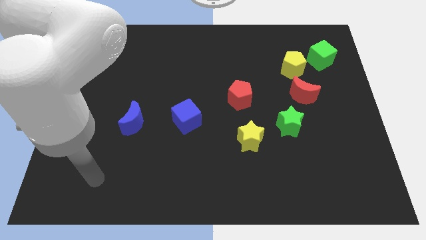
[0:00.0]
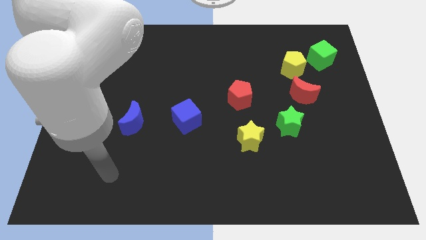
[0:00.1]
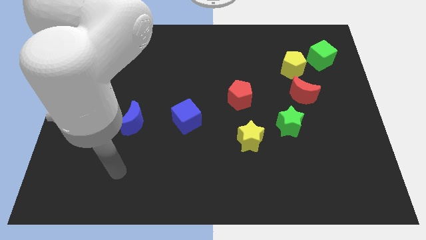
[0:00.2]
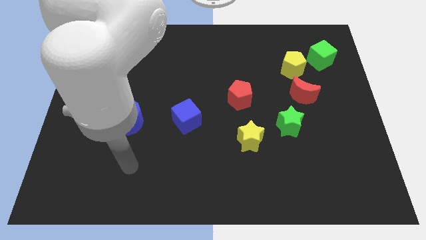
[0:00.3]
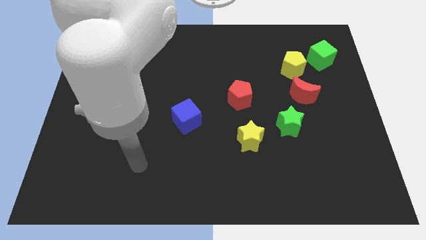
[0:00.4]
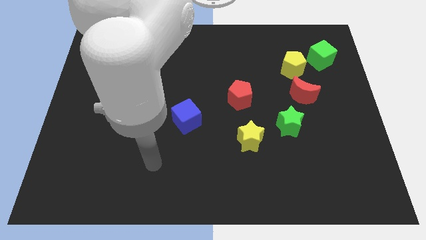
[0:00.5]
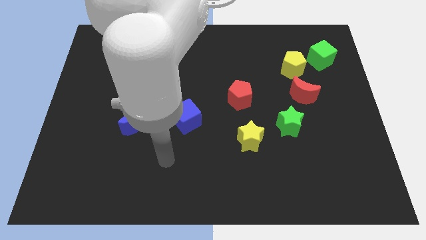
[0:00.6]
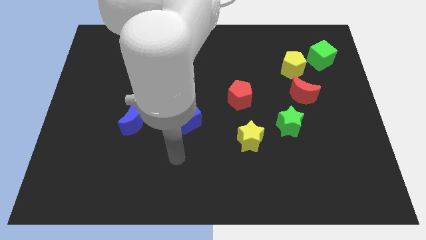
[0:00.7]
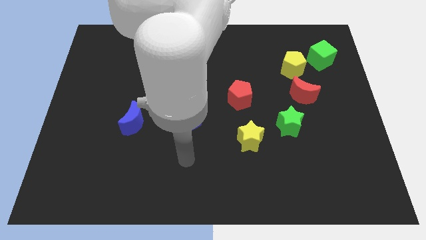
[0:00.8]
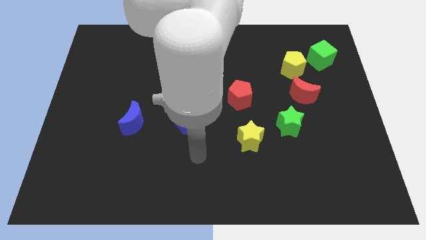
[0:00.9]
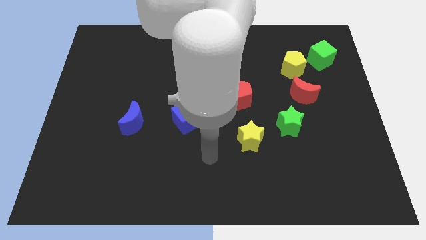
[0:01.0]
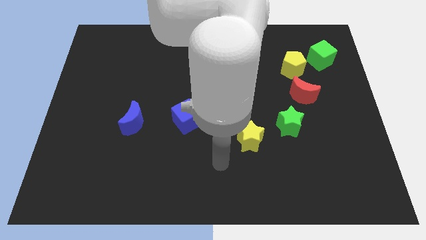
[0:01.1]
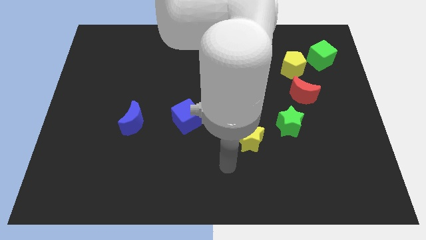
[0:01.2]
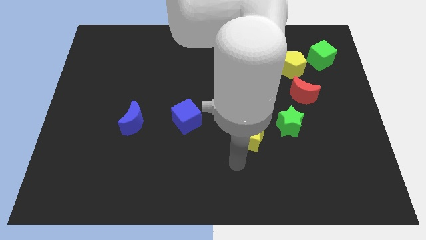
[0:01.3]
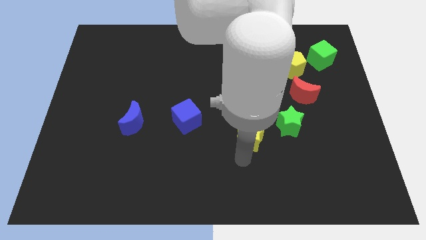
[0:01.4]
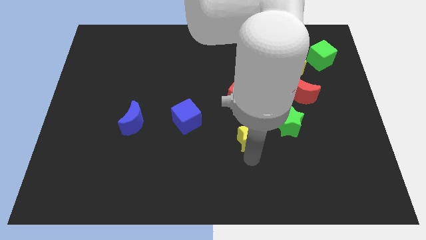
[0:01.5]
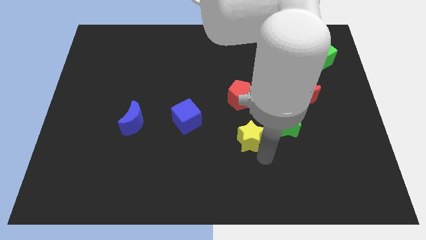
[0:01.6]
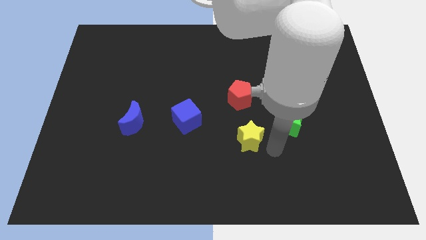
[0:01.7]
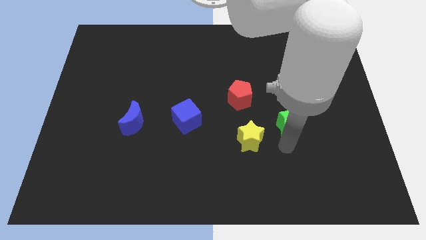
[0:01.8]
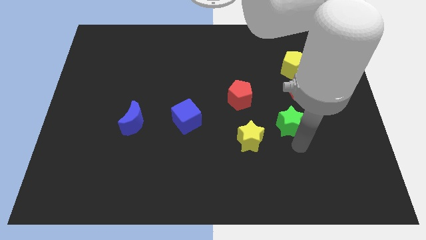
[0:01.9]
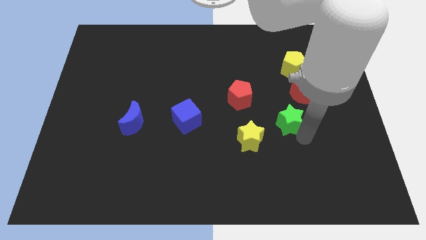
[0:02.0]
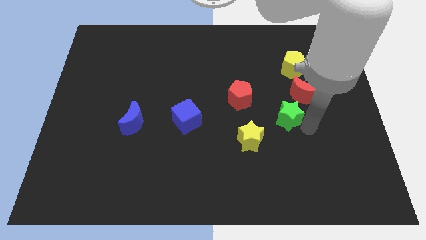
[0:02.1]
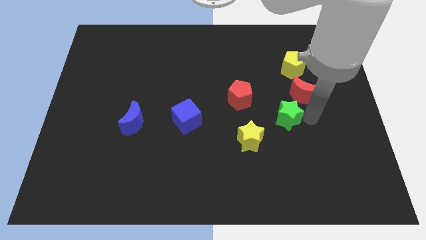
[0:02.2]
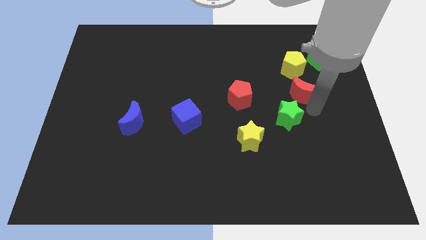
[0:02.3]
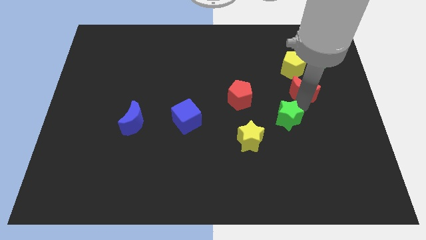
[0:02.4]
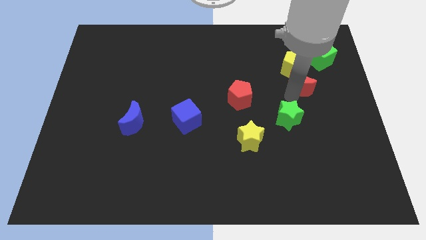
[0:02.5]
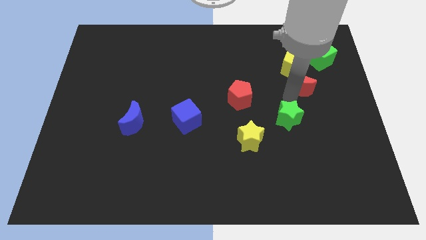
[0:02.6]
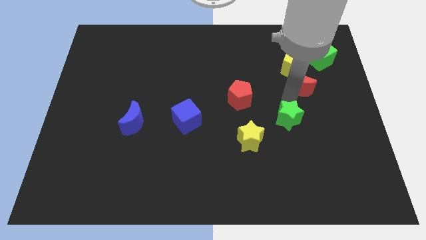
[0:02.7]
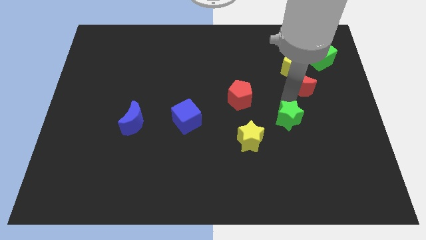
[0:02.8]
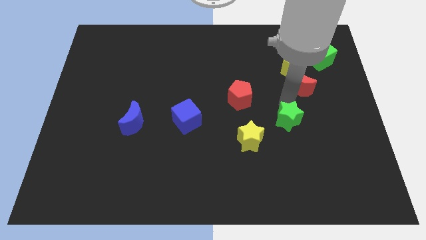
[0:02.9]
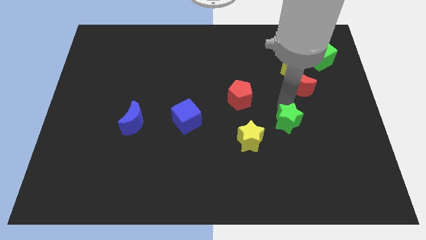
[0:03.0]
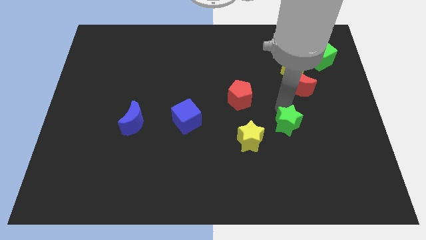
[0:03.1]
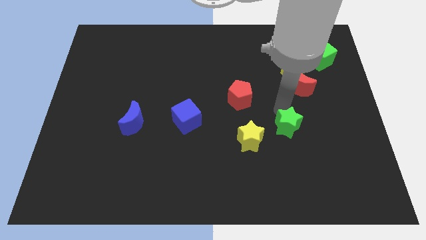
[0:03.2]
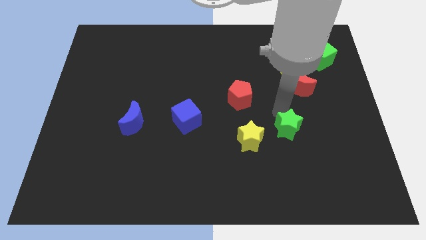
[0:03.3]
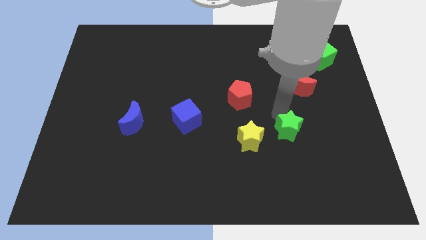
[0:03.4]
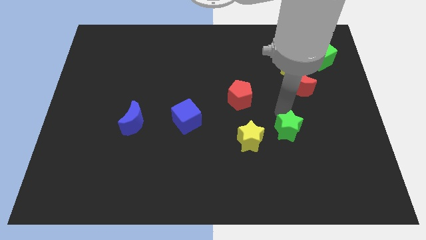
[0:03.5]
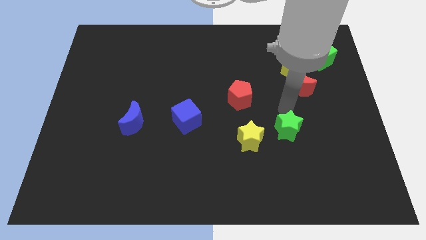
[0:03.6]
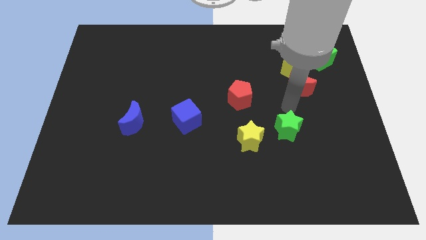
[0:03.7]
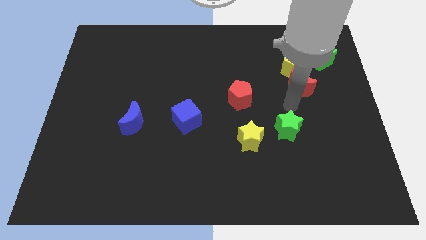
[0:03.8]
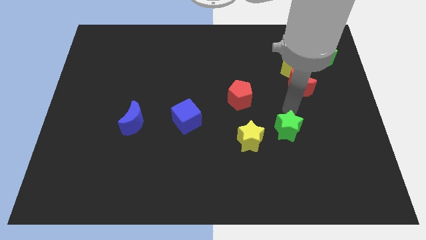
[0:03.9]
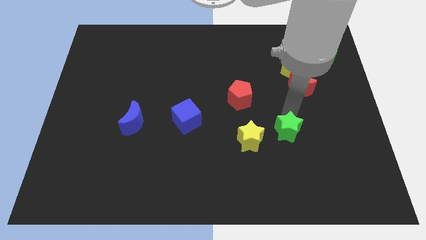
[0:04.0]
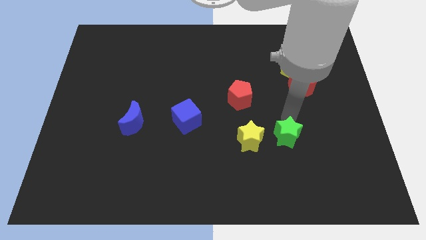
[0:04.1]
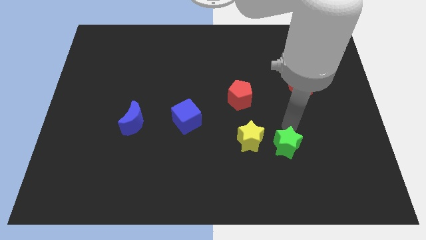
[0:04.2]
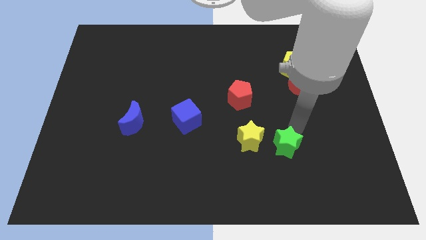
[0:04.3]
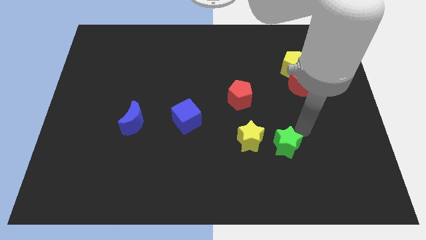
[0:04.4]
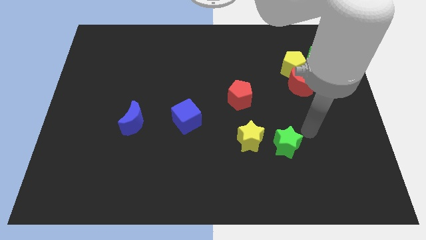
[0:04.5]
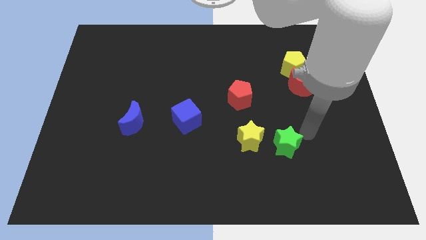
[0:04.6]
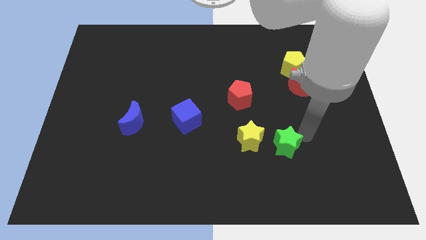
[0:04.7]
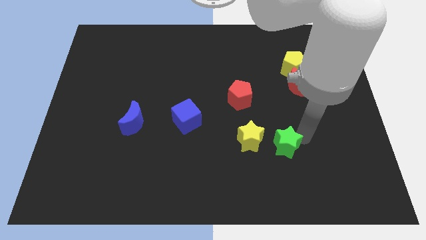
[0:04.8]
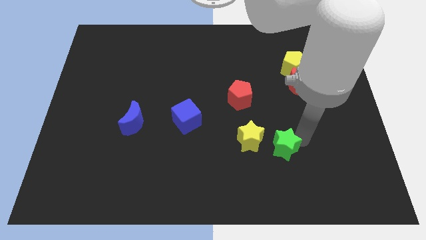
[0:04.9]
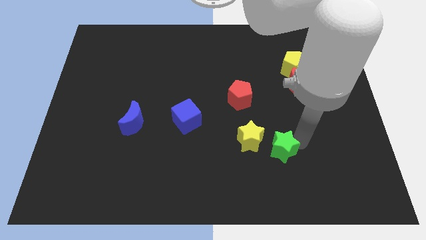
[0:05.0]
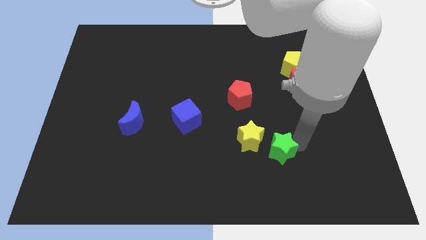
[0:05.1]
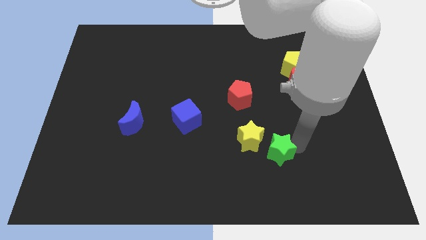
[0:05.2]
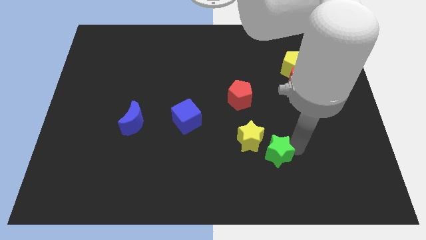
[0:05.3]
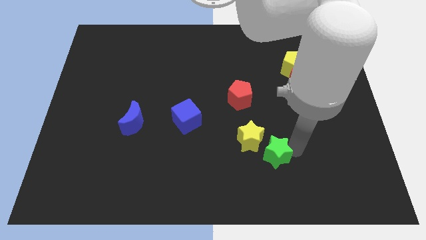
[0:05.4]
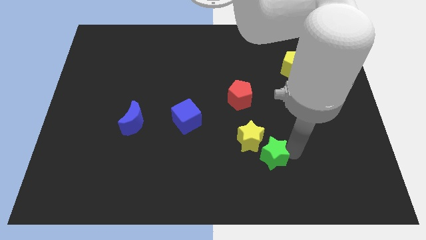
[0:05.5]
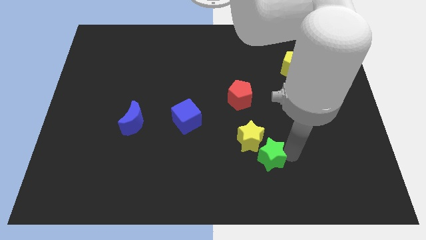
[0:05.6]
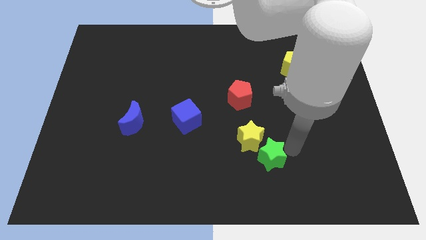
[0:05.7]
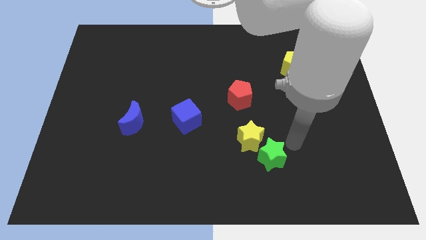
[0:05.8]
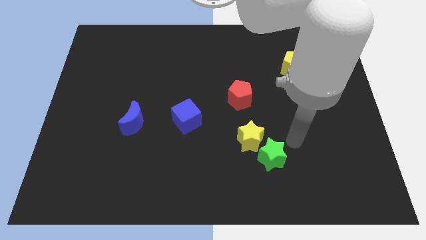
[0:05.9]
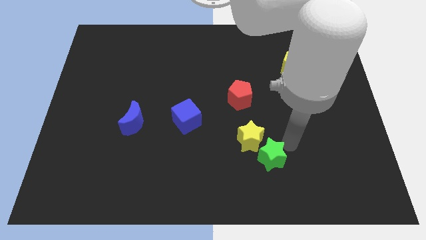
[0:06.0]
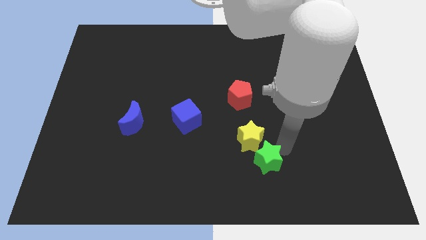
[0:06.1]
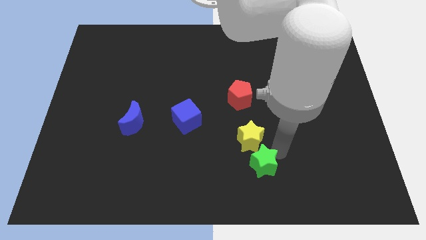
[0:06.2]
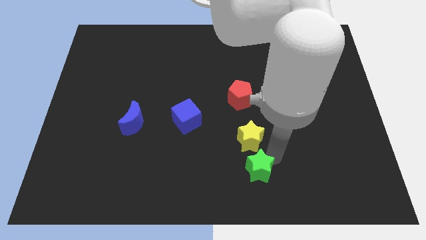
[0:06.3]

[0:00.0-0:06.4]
push the green star to the bottom side
